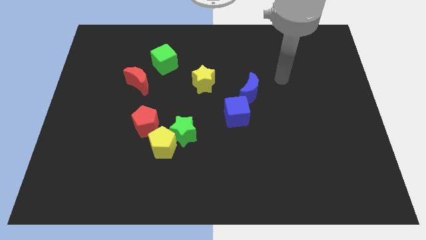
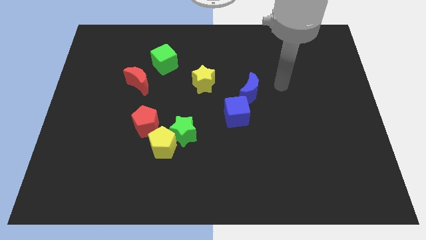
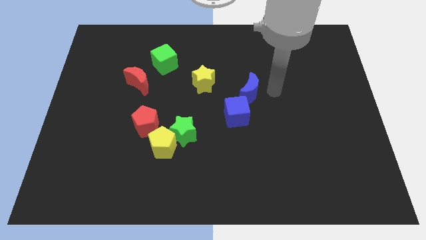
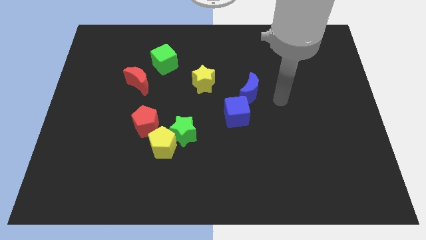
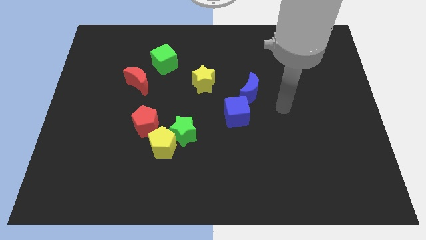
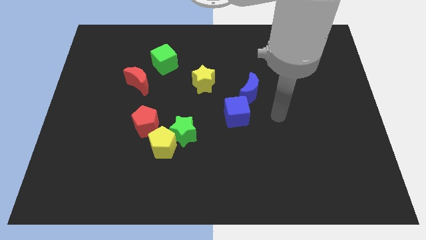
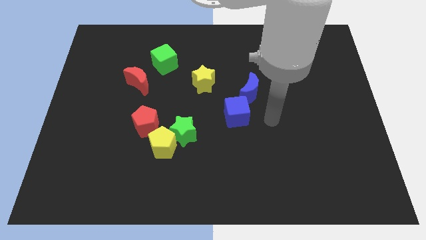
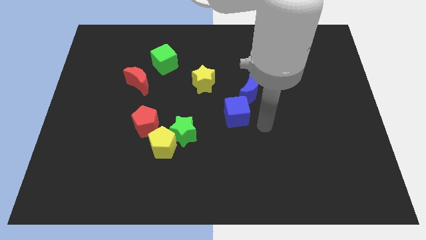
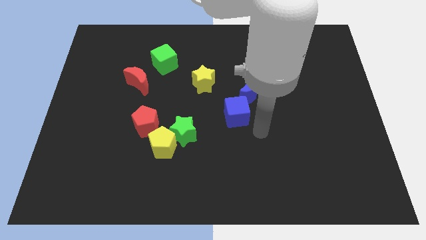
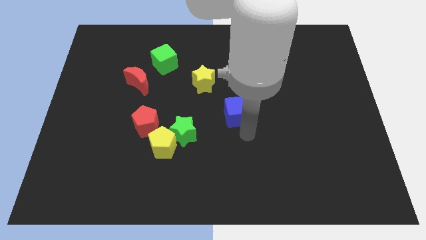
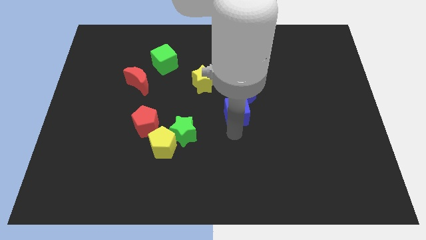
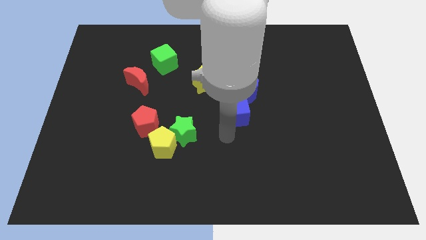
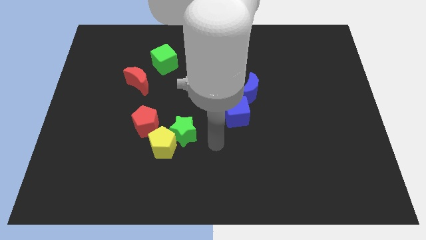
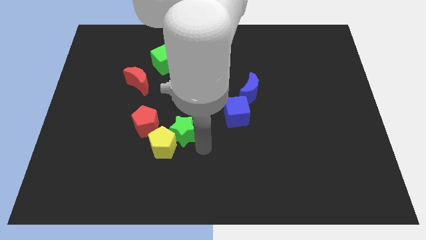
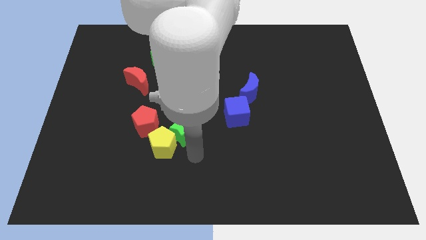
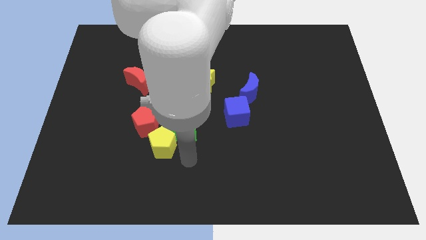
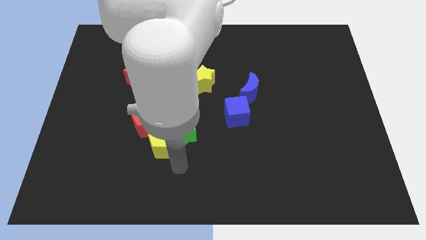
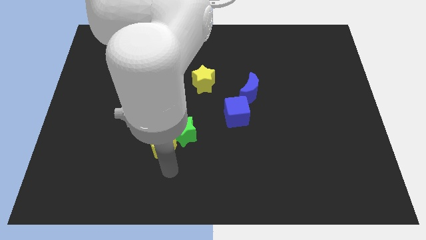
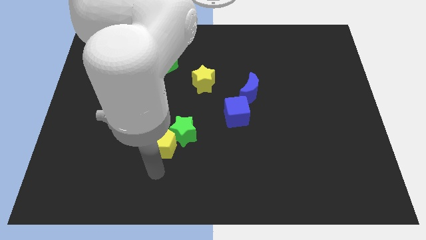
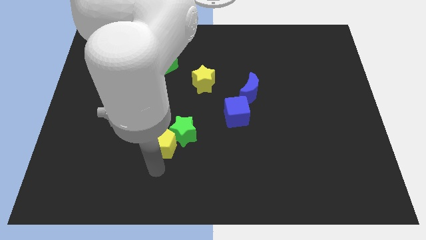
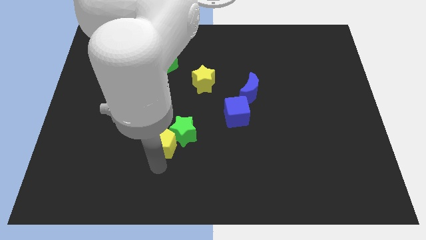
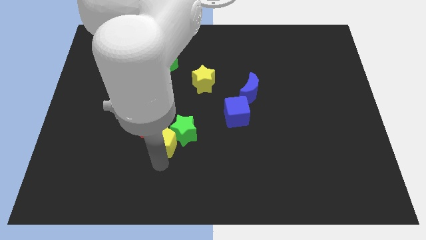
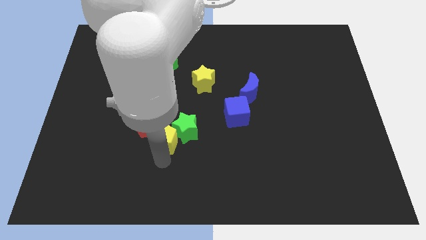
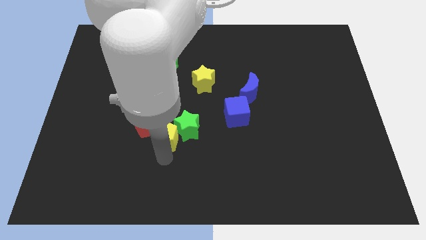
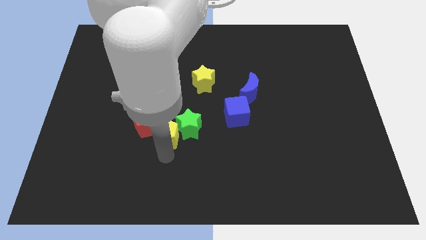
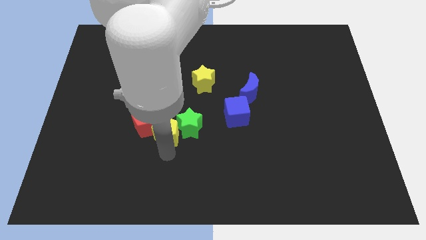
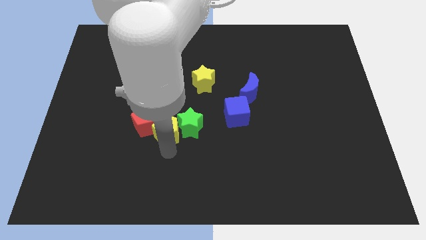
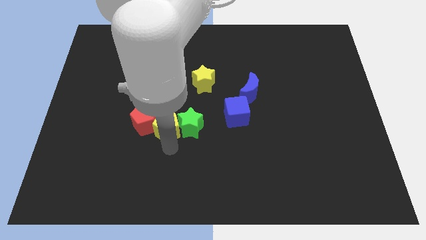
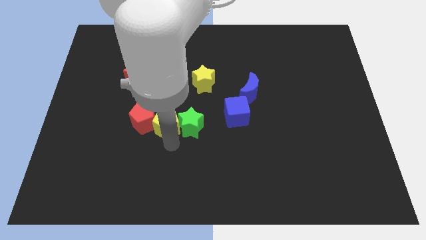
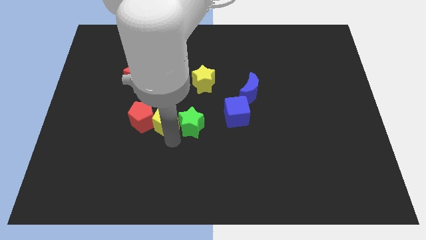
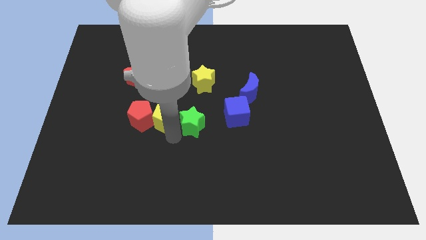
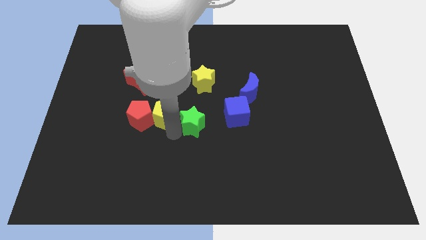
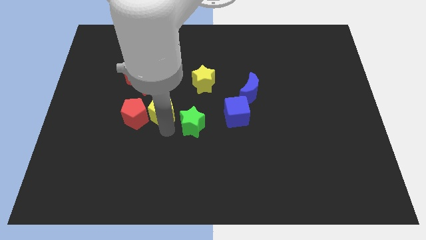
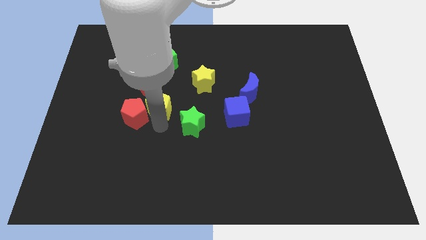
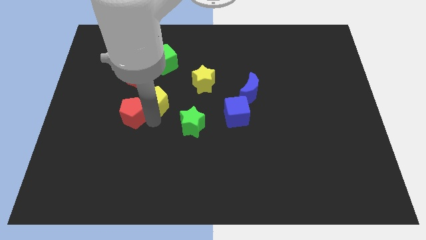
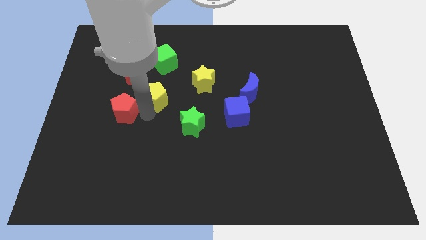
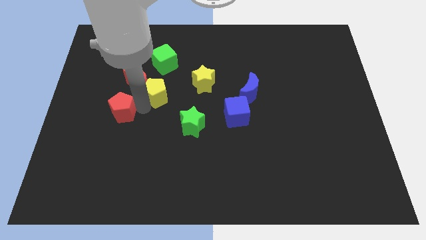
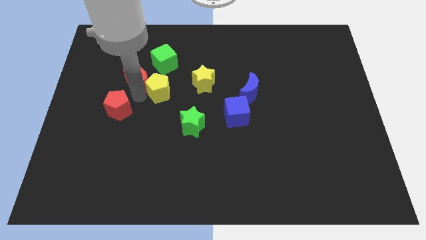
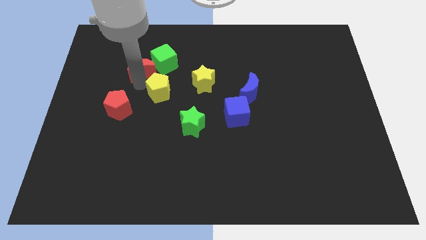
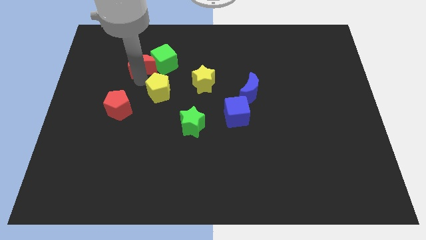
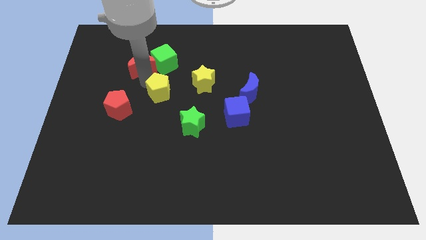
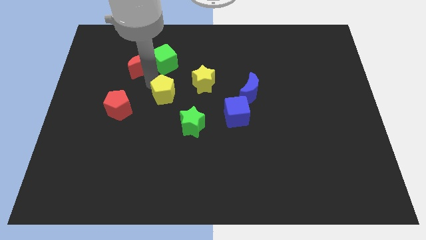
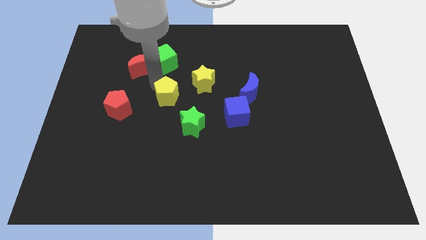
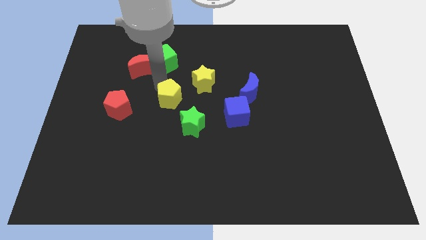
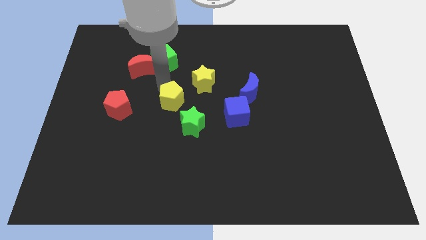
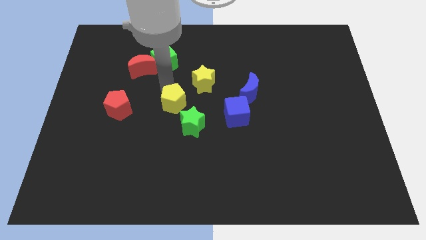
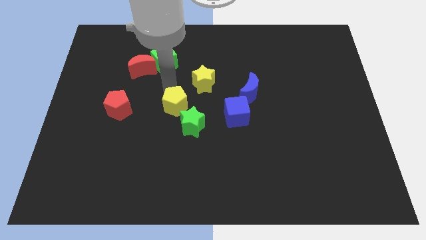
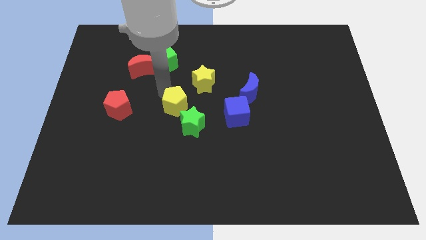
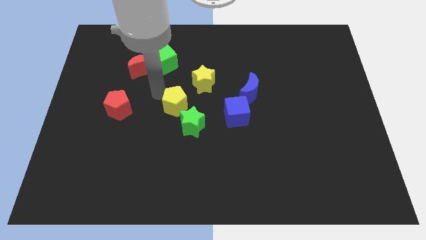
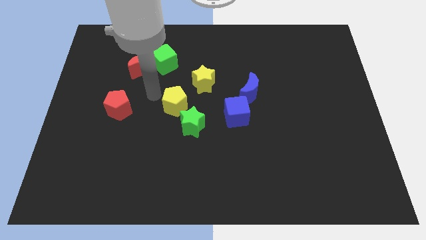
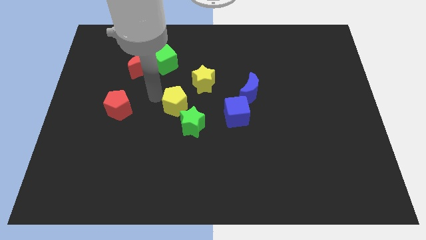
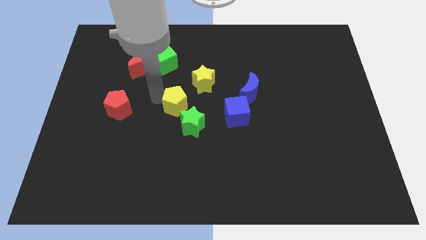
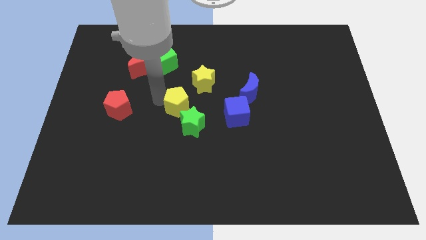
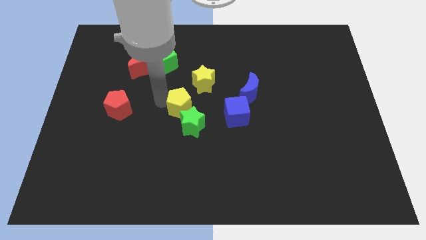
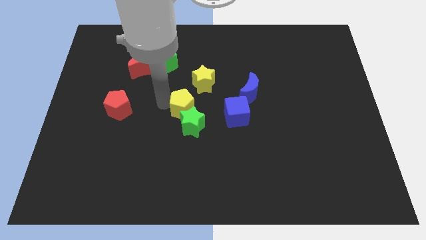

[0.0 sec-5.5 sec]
put the yellow pentagon to the bottom side of the yellow star

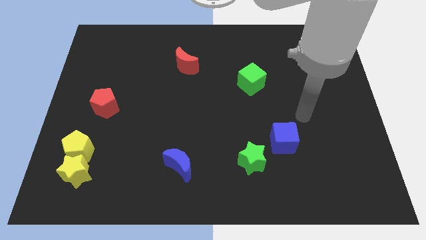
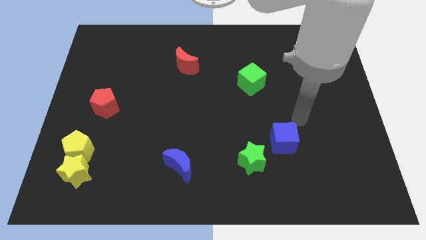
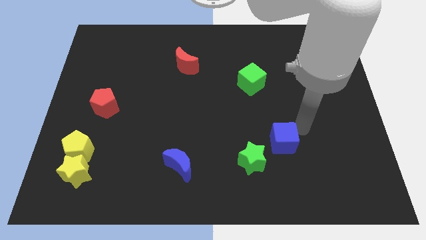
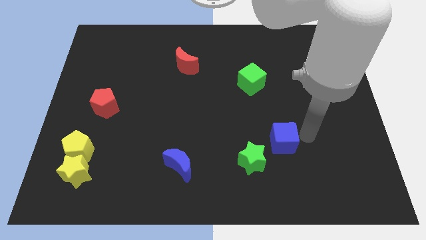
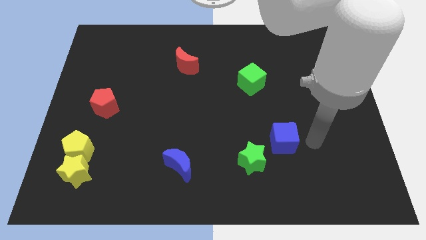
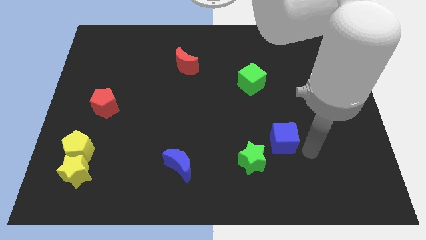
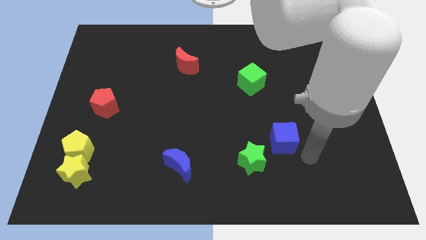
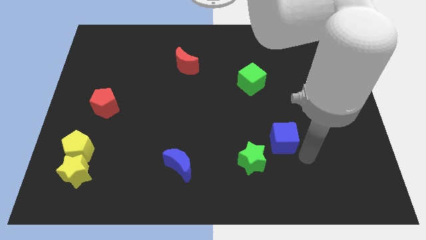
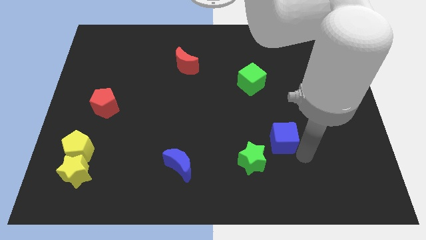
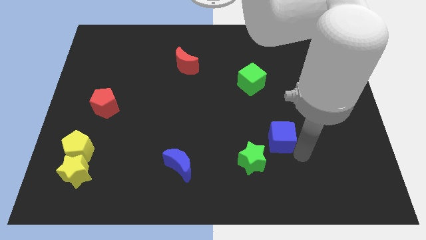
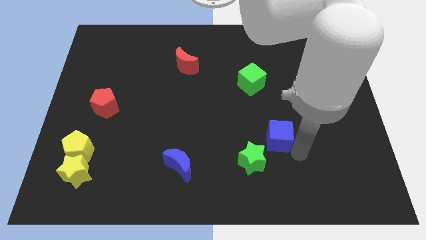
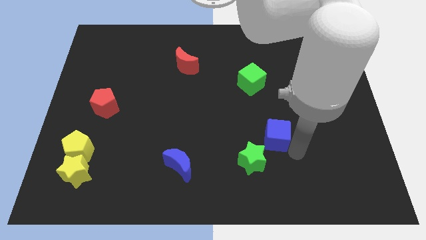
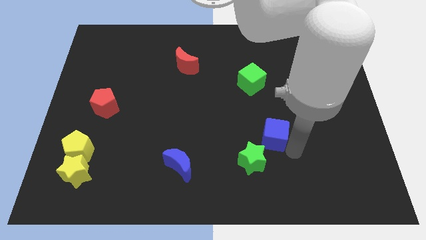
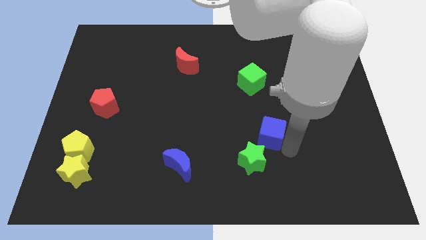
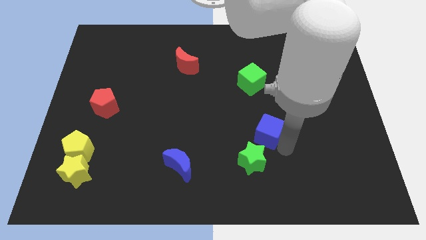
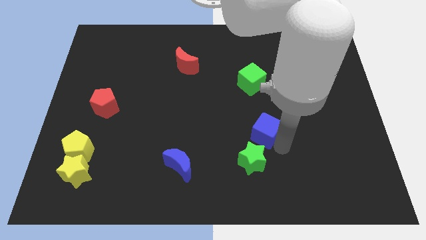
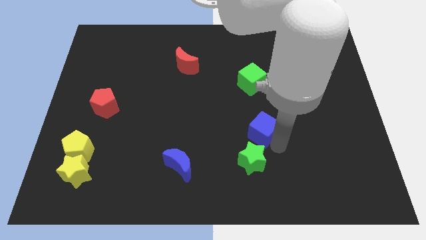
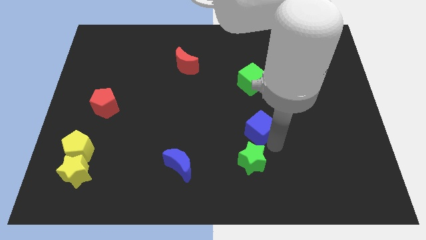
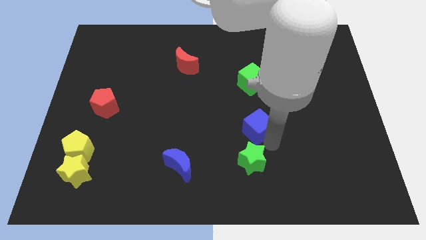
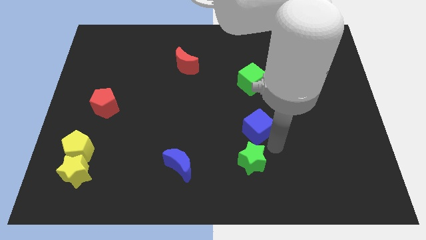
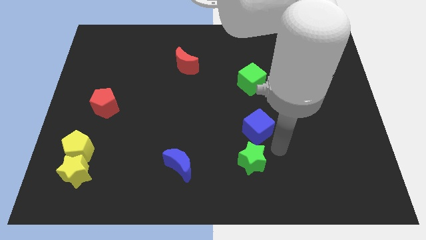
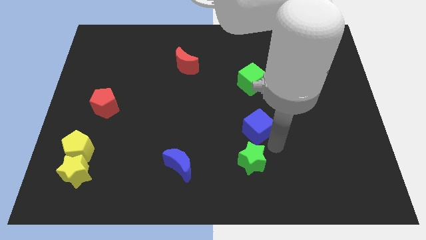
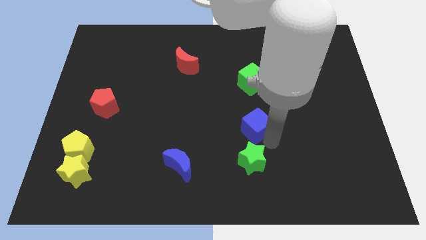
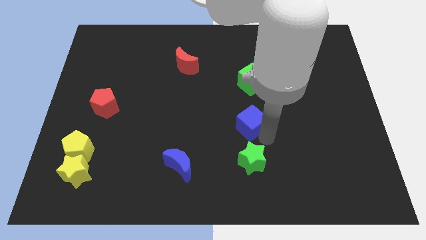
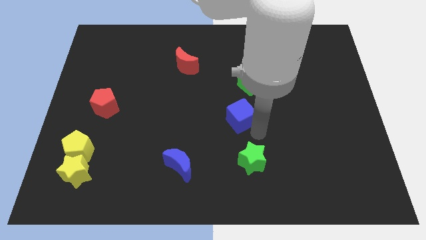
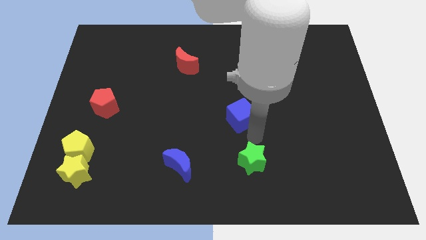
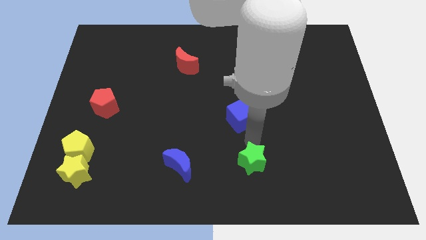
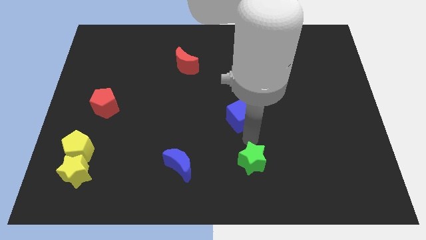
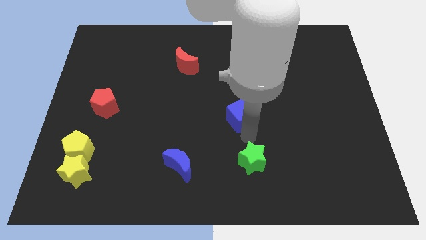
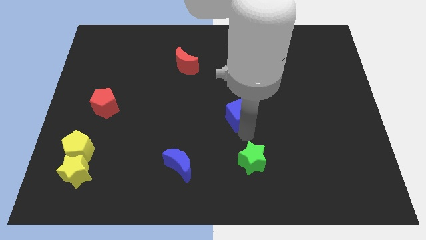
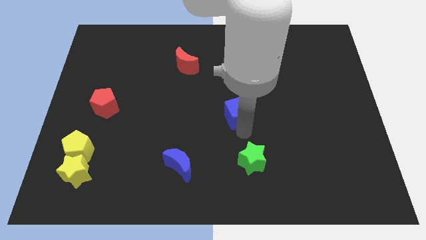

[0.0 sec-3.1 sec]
slide the blue cube diagonally down and to the left of the green cube
